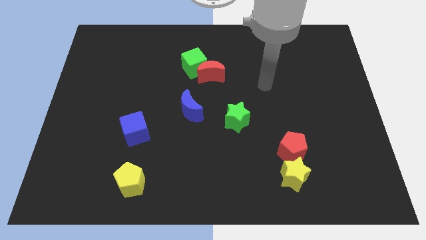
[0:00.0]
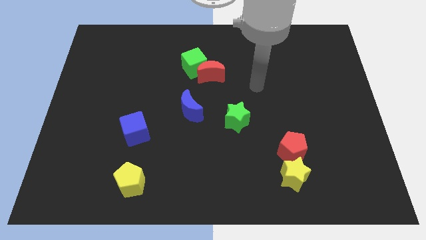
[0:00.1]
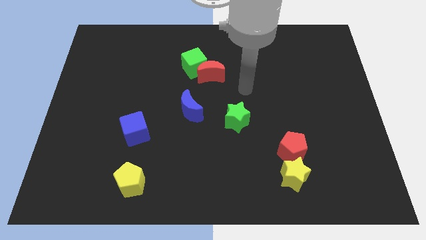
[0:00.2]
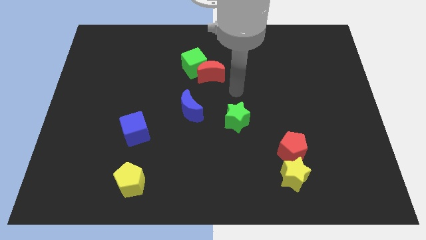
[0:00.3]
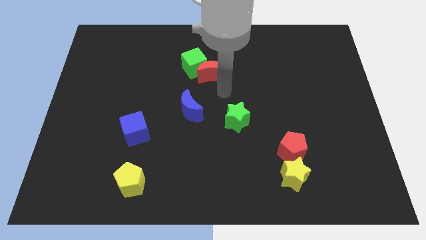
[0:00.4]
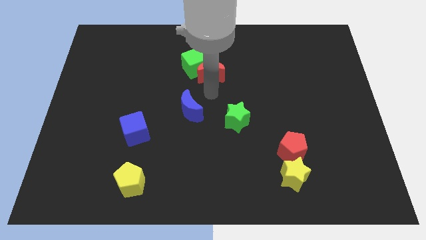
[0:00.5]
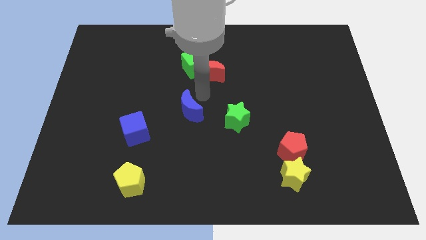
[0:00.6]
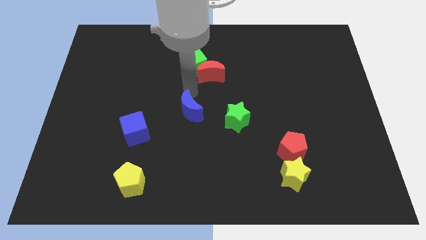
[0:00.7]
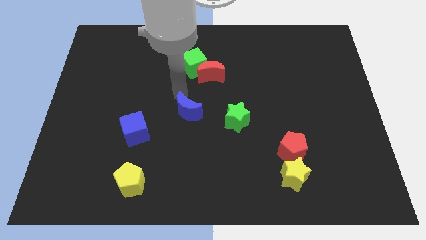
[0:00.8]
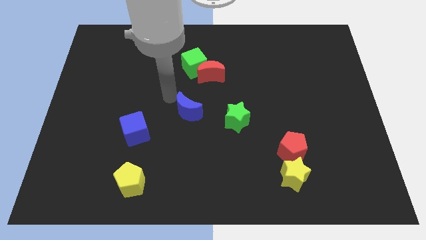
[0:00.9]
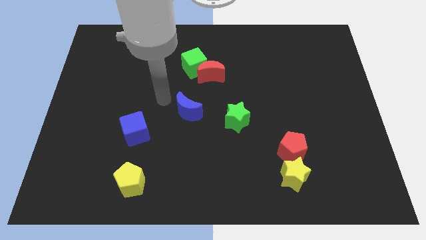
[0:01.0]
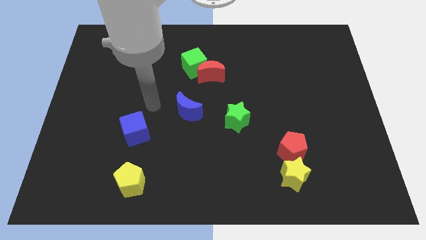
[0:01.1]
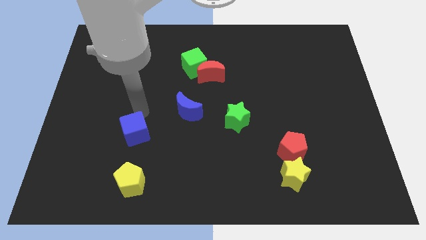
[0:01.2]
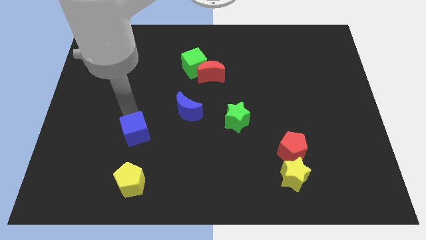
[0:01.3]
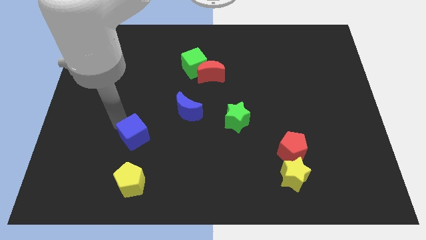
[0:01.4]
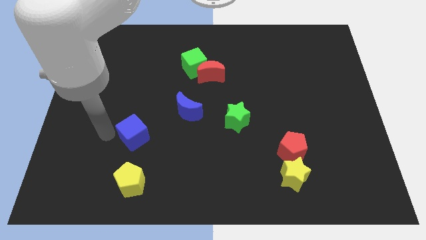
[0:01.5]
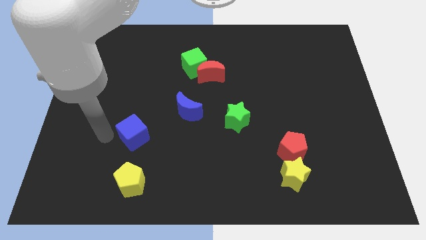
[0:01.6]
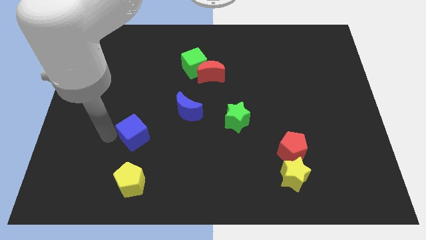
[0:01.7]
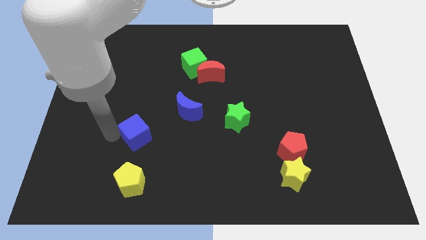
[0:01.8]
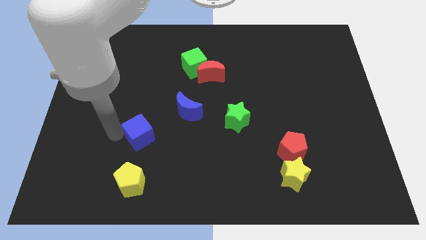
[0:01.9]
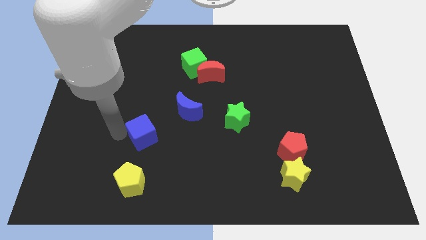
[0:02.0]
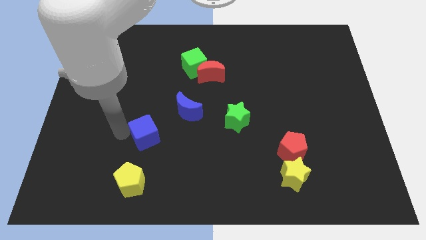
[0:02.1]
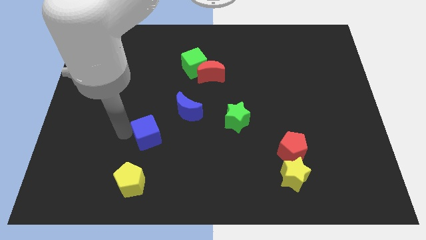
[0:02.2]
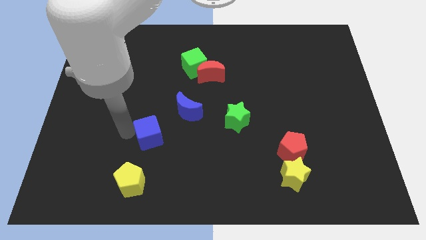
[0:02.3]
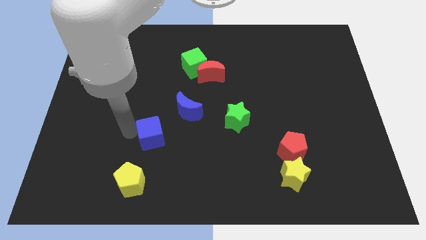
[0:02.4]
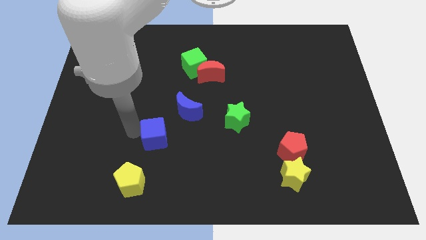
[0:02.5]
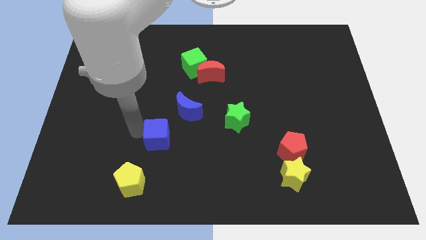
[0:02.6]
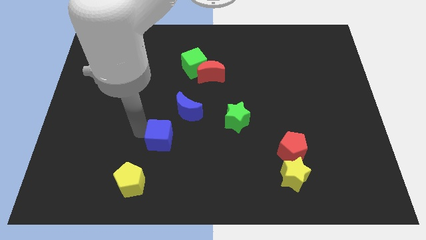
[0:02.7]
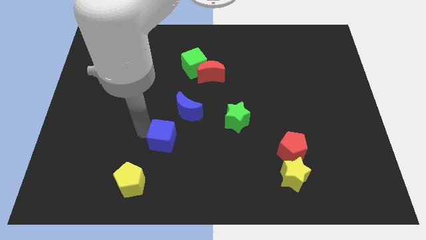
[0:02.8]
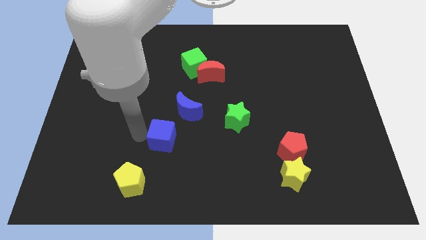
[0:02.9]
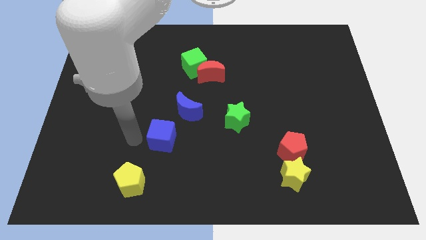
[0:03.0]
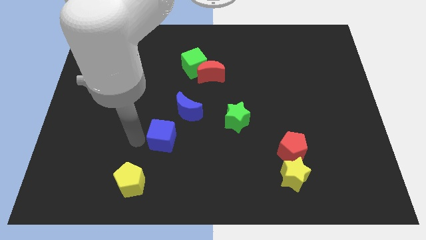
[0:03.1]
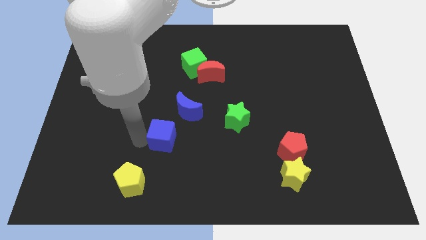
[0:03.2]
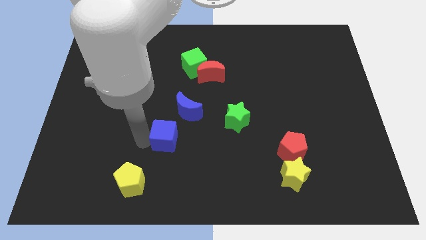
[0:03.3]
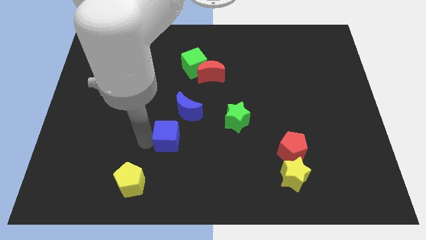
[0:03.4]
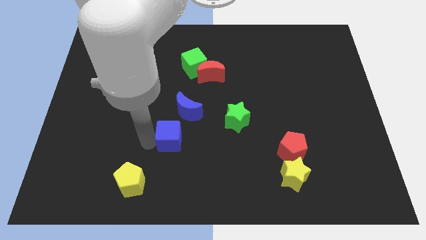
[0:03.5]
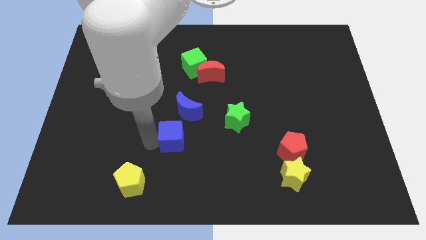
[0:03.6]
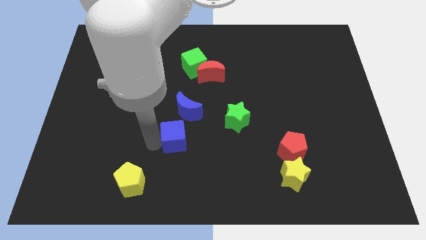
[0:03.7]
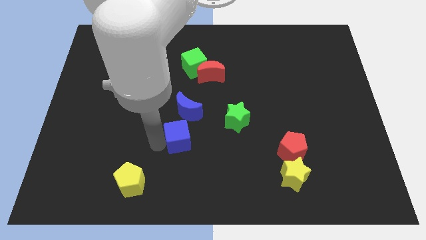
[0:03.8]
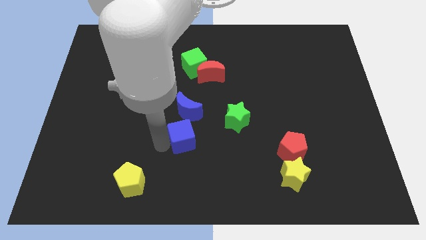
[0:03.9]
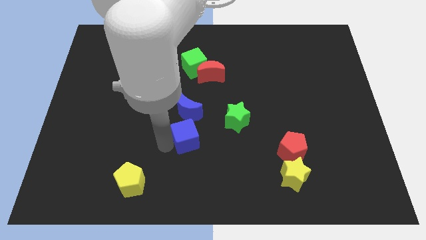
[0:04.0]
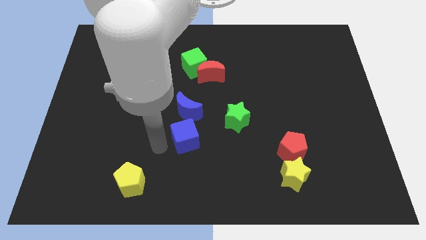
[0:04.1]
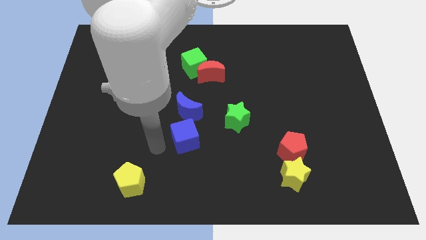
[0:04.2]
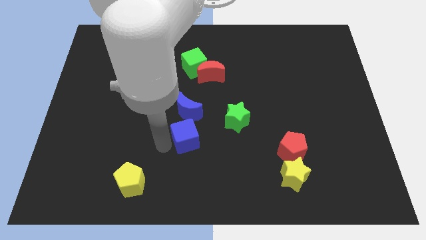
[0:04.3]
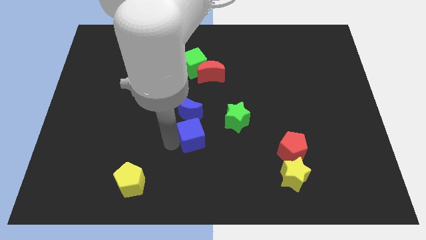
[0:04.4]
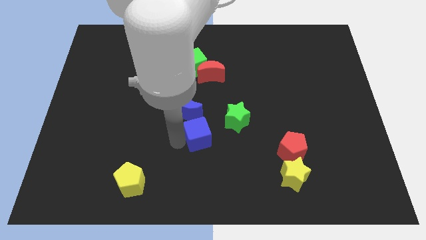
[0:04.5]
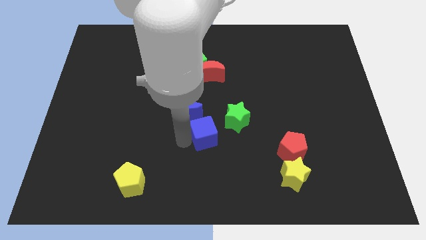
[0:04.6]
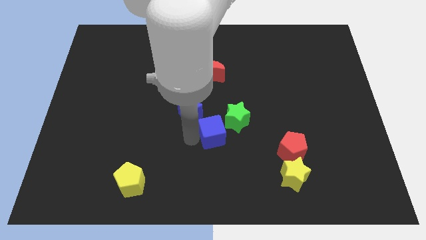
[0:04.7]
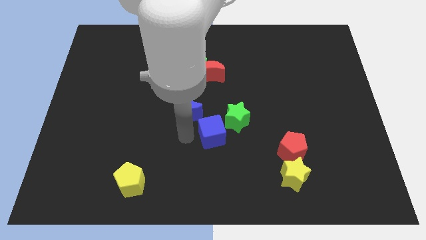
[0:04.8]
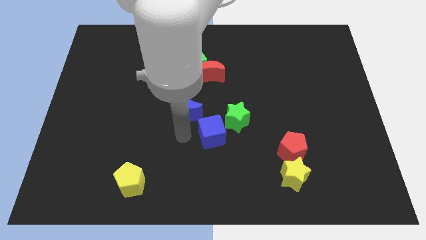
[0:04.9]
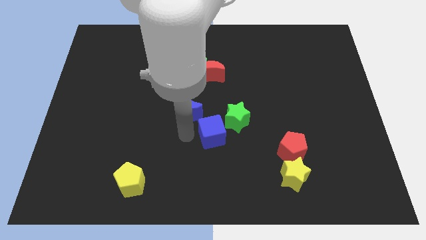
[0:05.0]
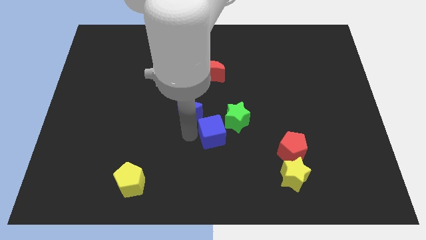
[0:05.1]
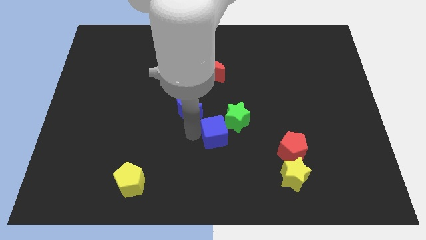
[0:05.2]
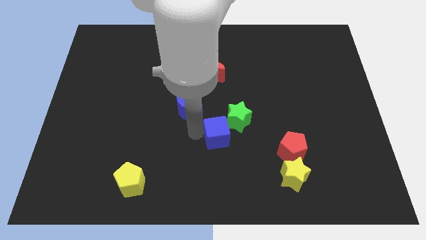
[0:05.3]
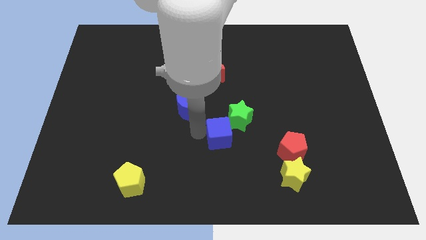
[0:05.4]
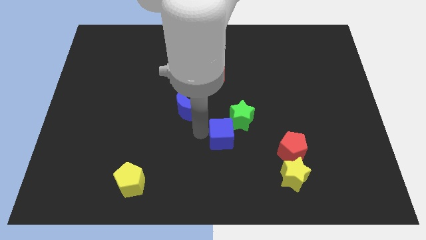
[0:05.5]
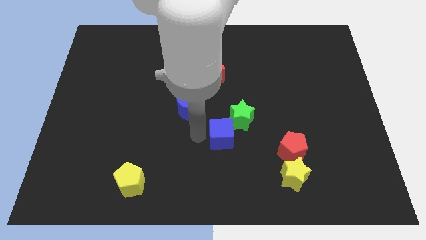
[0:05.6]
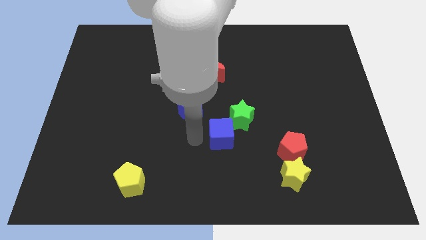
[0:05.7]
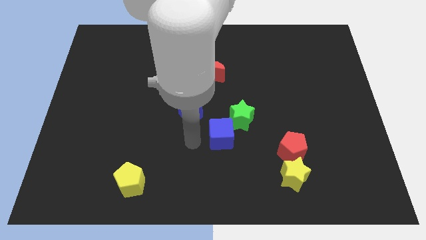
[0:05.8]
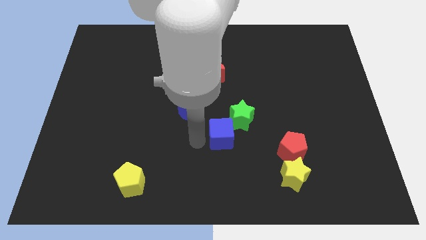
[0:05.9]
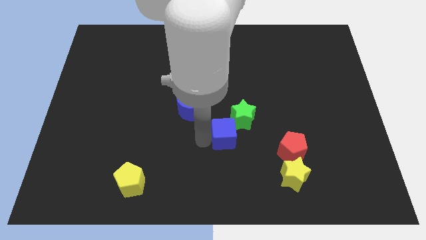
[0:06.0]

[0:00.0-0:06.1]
push the blue cube to the right

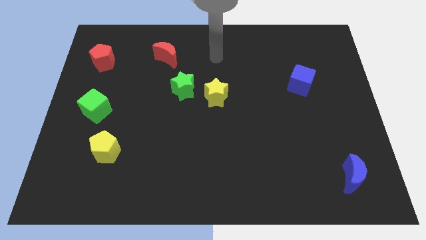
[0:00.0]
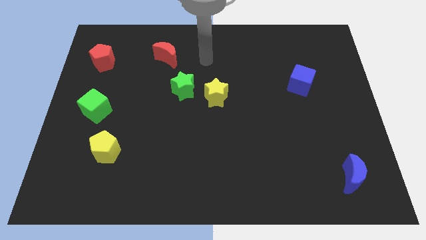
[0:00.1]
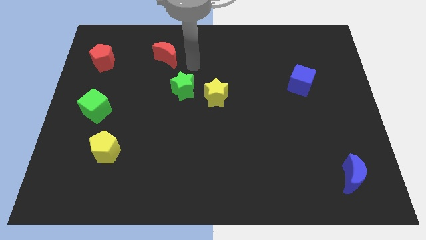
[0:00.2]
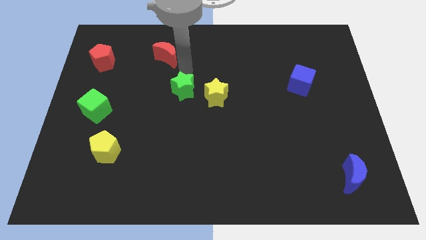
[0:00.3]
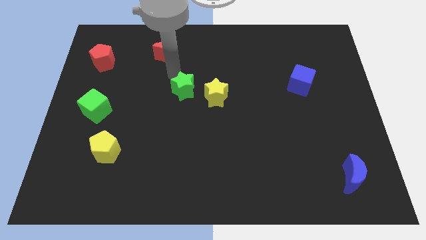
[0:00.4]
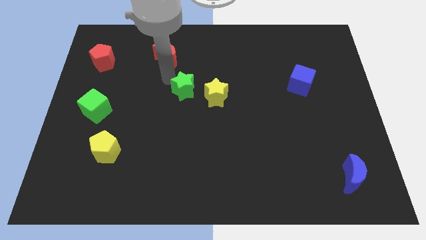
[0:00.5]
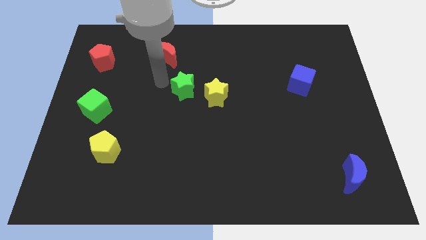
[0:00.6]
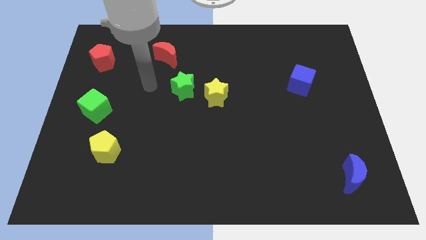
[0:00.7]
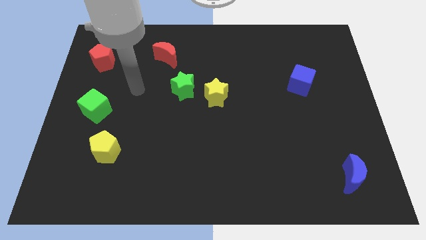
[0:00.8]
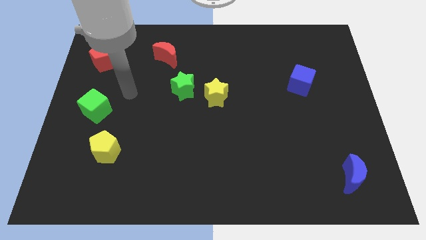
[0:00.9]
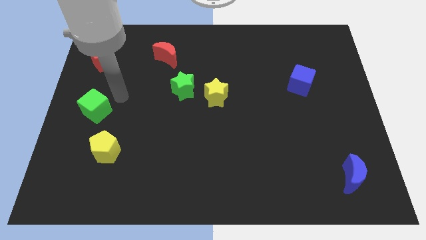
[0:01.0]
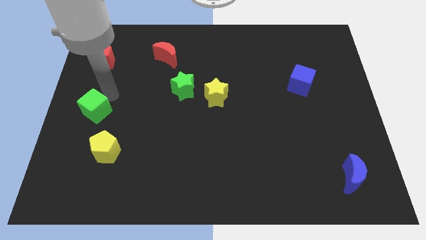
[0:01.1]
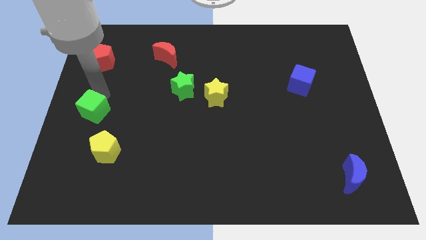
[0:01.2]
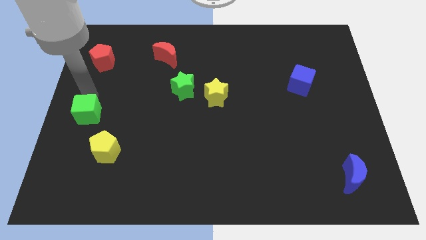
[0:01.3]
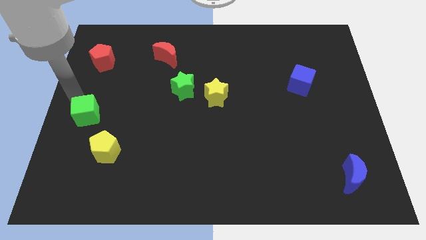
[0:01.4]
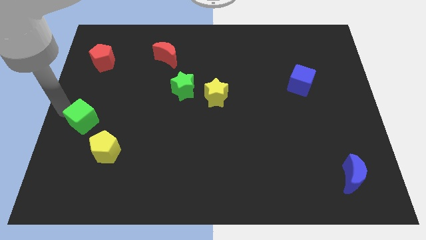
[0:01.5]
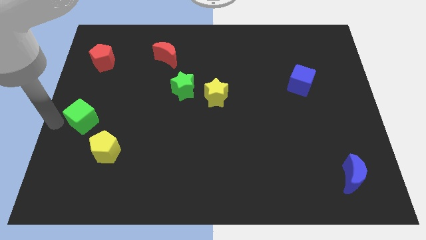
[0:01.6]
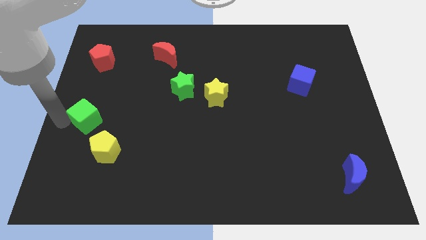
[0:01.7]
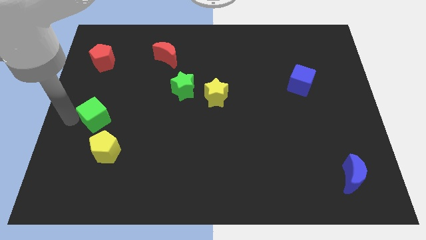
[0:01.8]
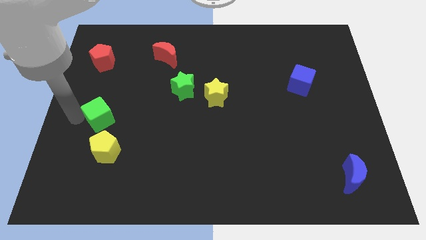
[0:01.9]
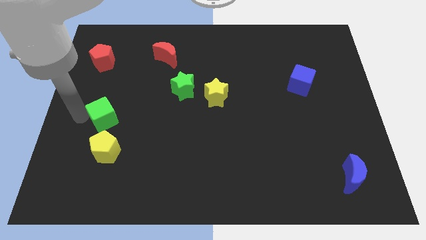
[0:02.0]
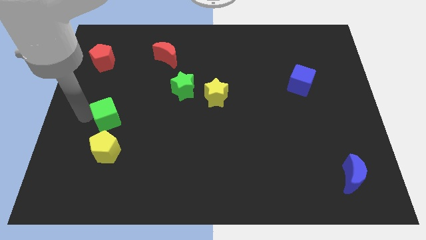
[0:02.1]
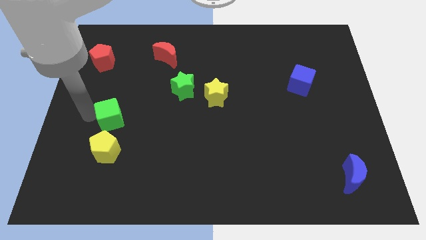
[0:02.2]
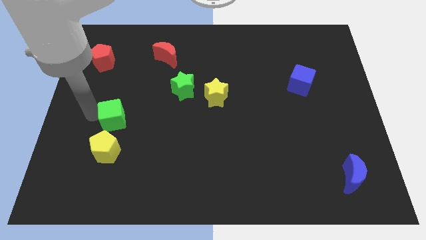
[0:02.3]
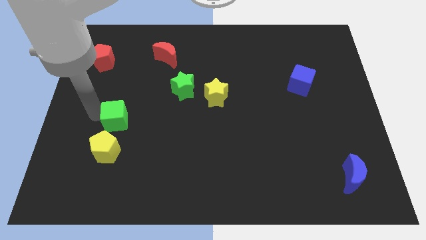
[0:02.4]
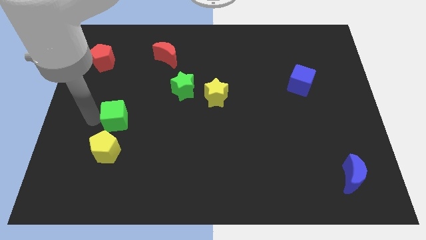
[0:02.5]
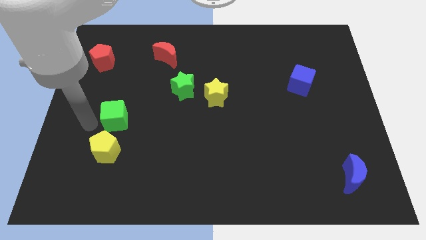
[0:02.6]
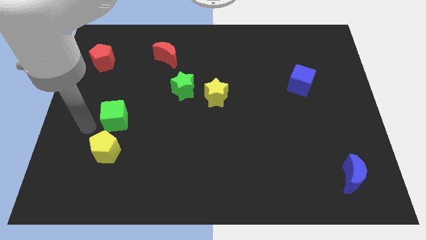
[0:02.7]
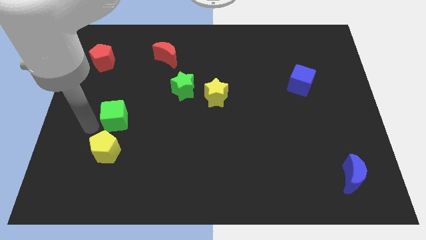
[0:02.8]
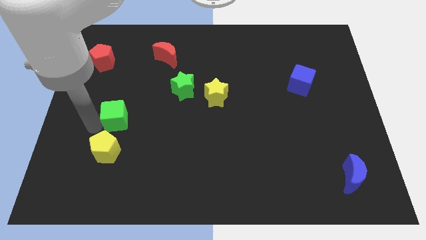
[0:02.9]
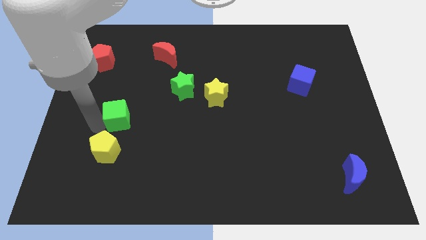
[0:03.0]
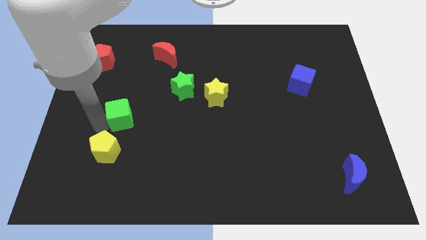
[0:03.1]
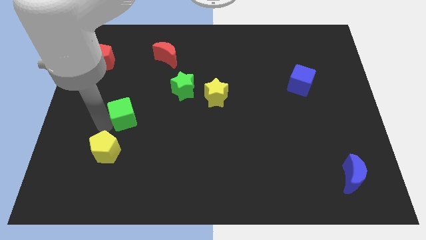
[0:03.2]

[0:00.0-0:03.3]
move the green cube to the right slightly
